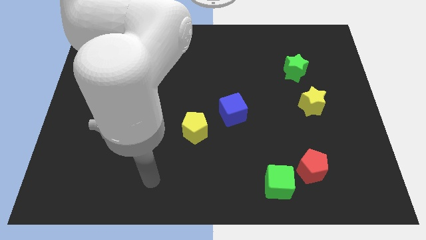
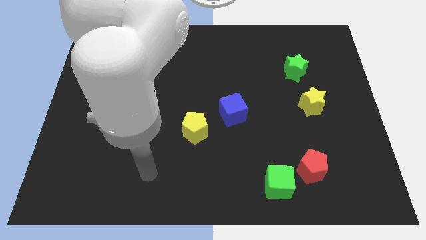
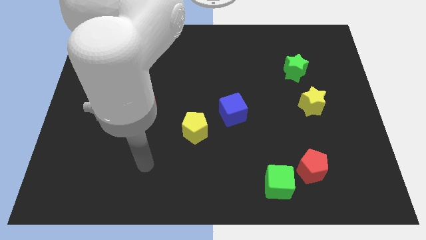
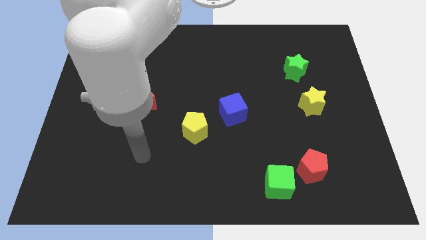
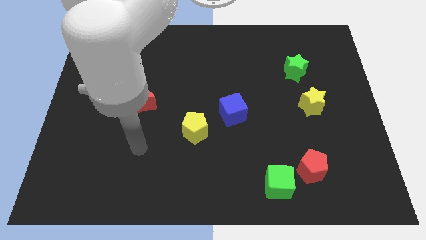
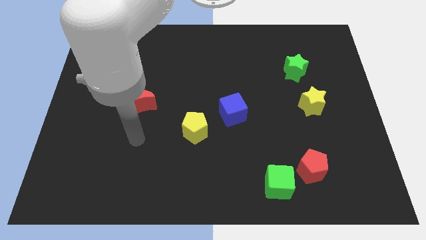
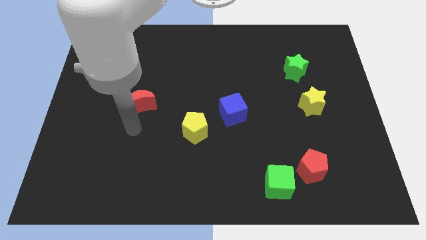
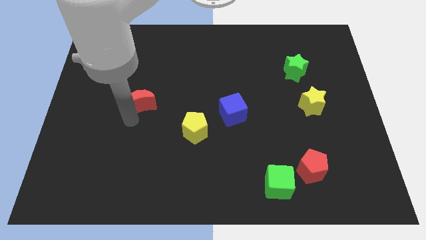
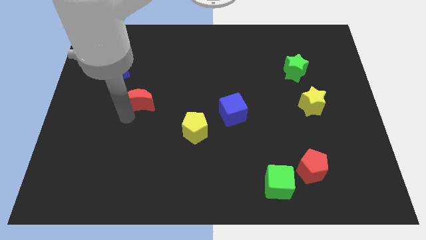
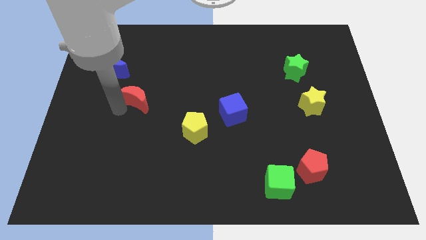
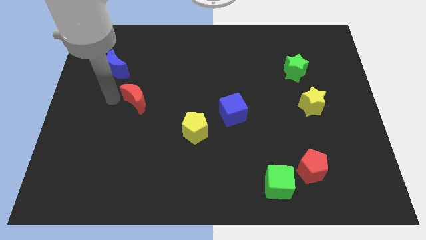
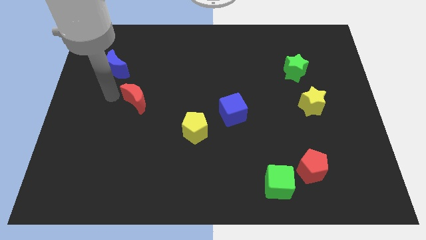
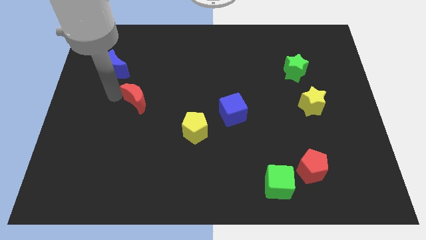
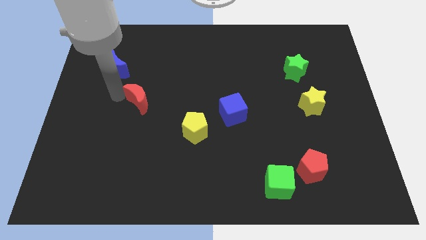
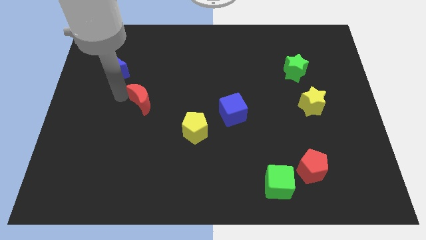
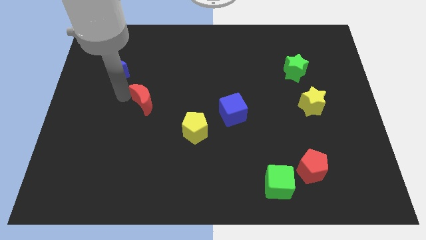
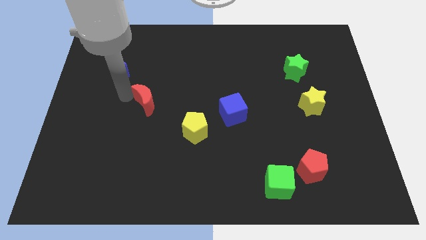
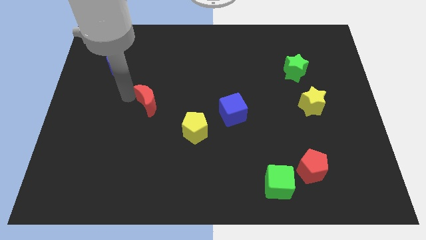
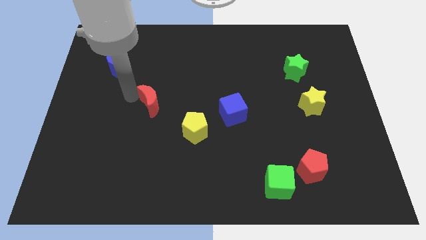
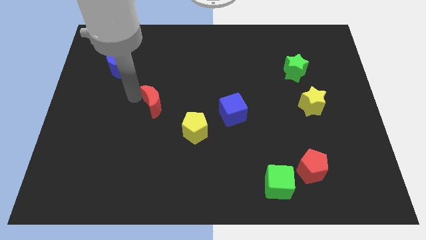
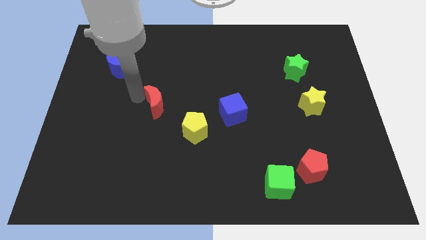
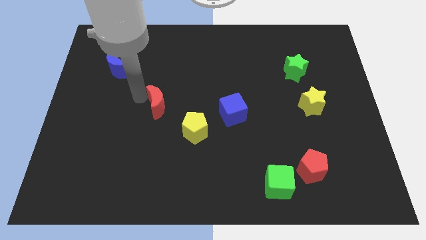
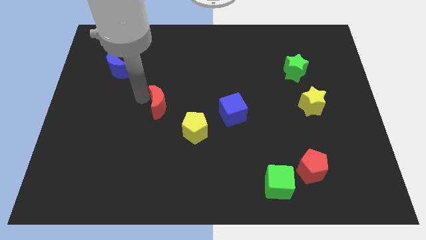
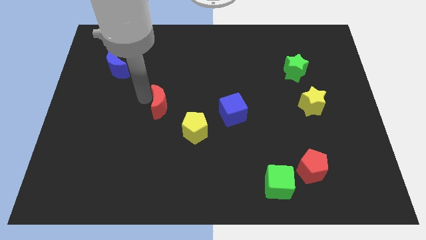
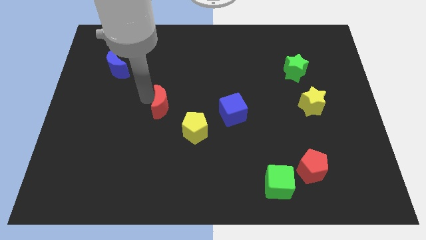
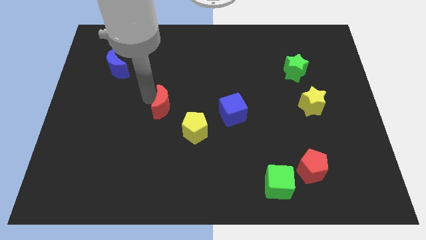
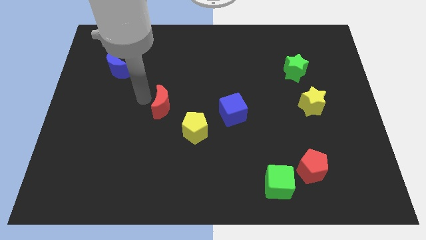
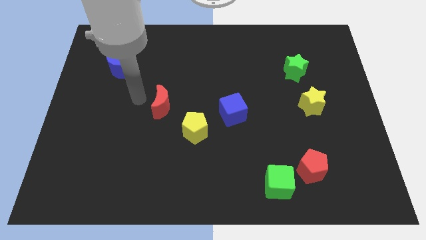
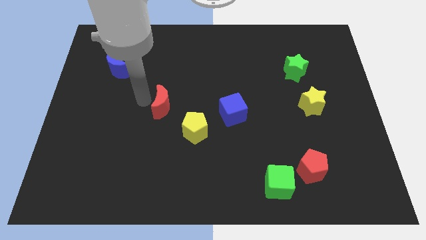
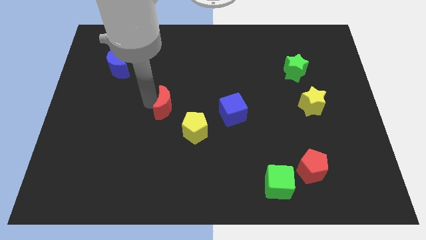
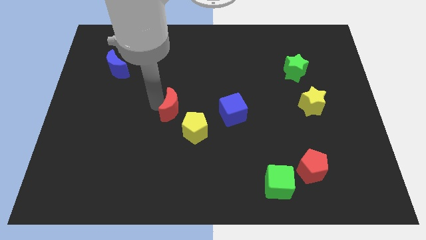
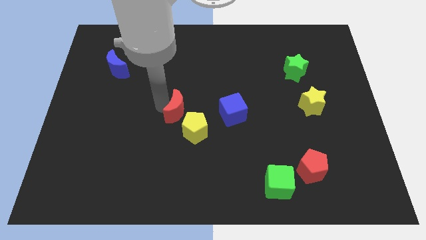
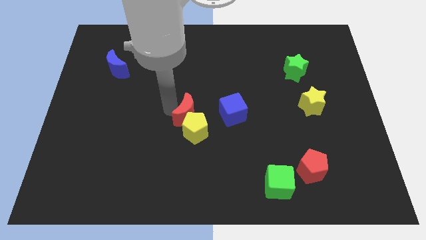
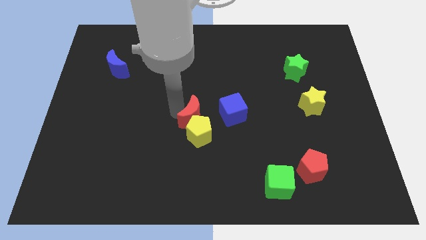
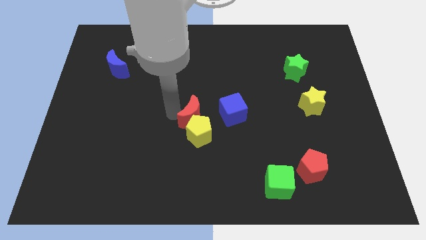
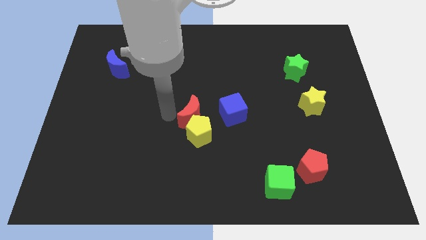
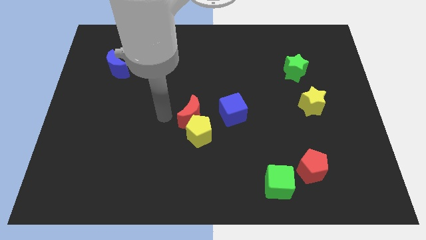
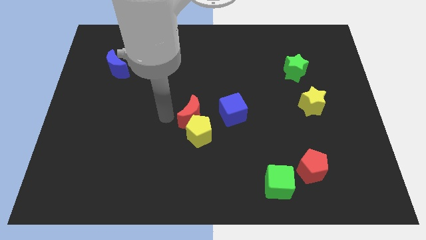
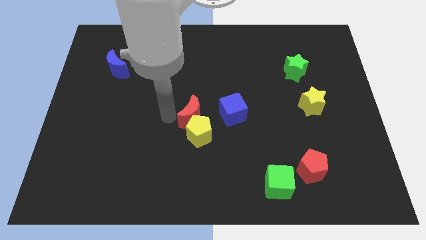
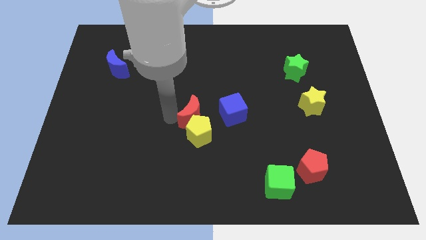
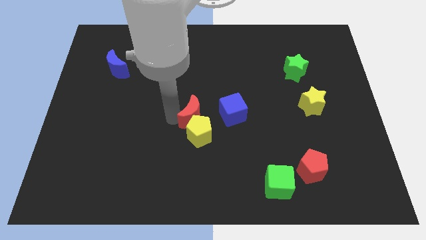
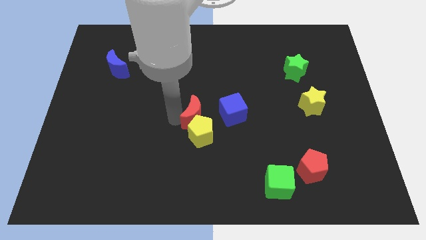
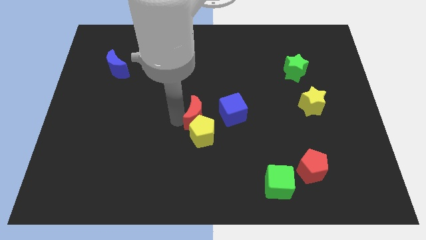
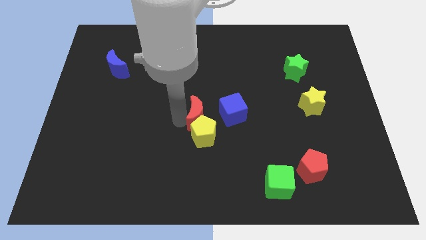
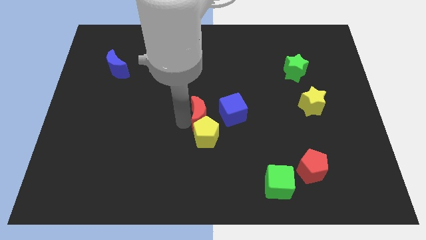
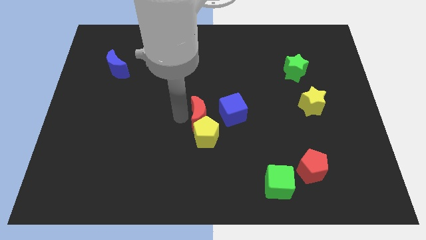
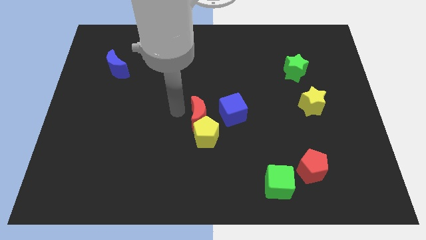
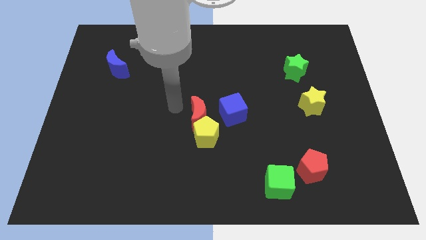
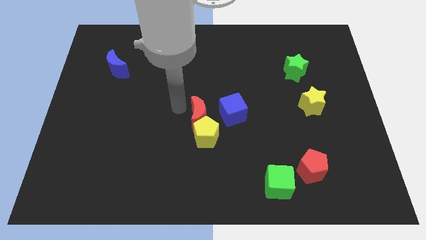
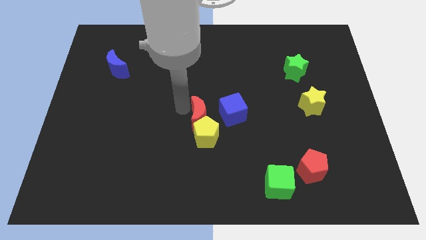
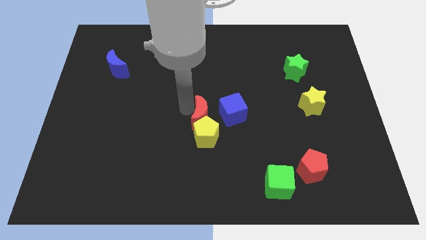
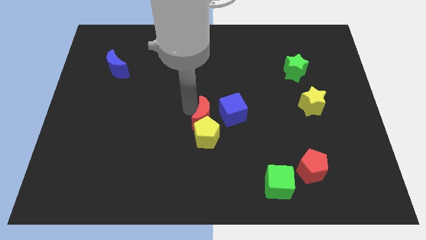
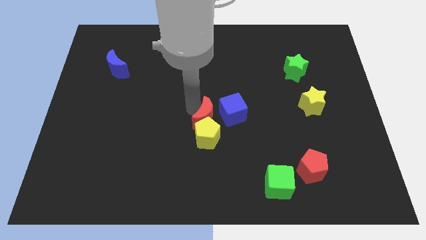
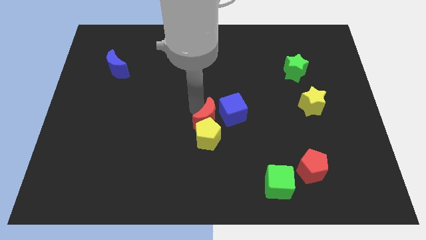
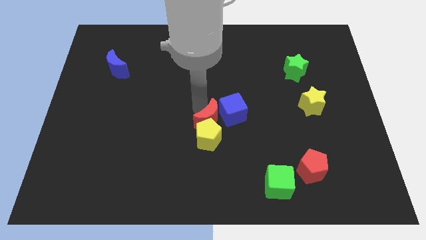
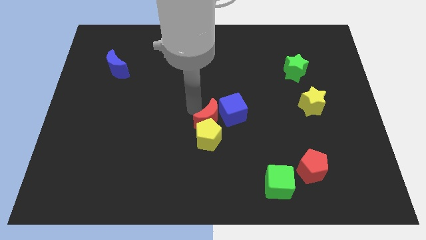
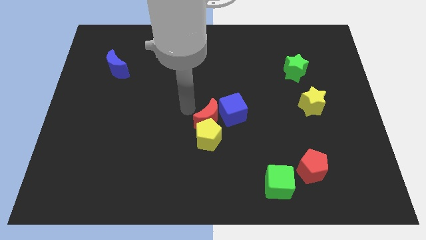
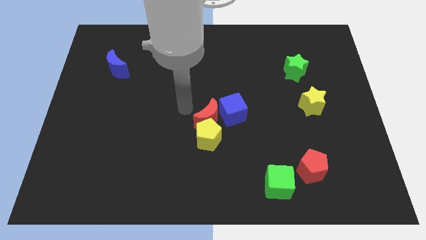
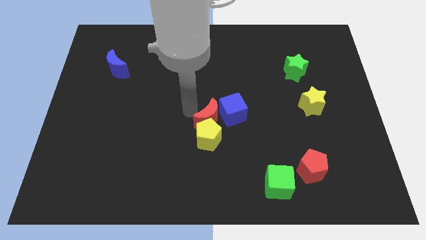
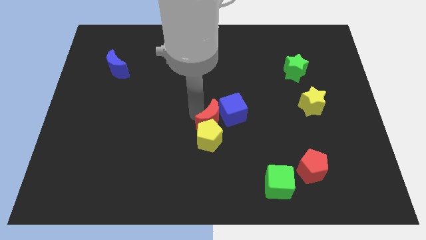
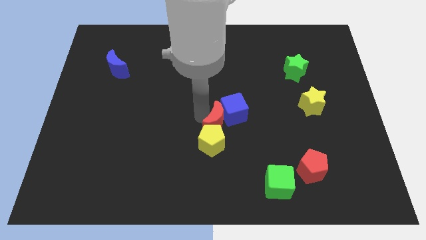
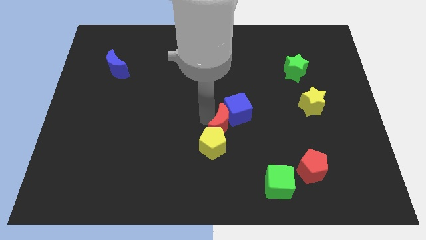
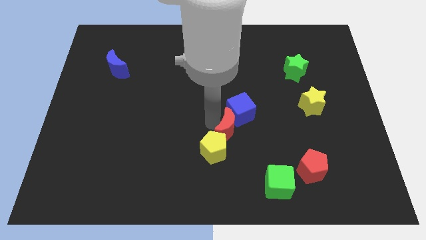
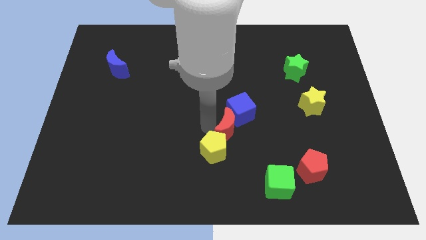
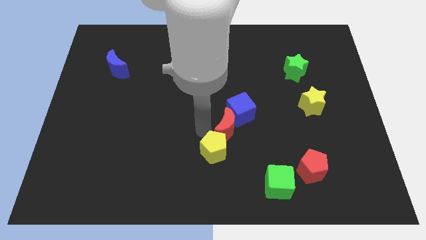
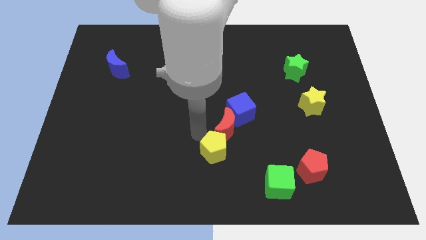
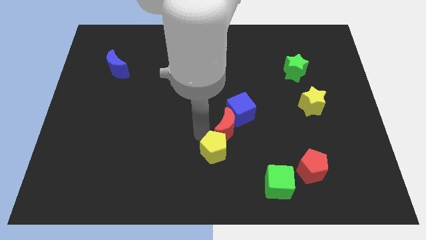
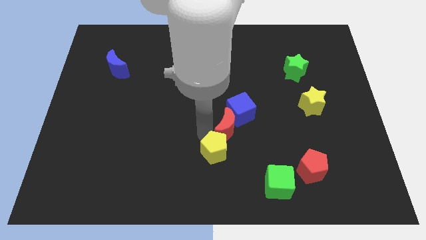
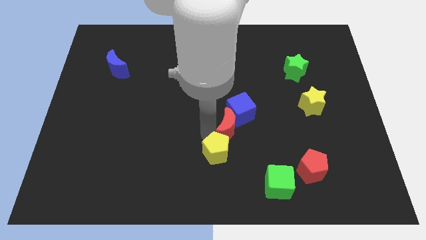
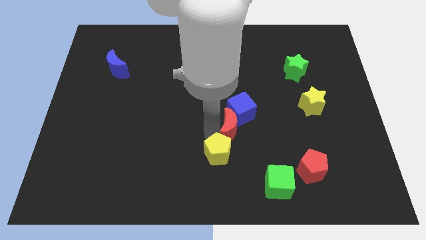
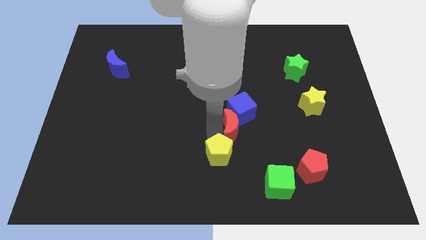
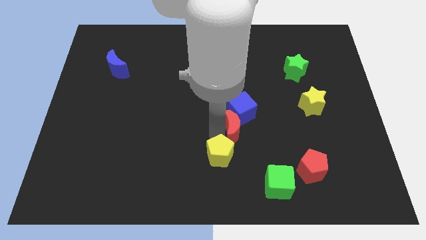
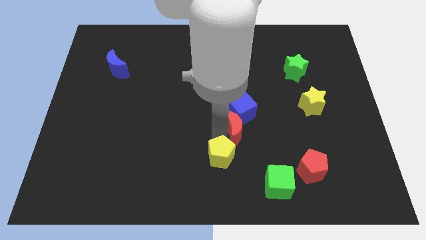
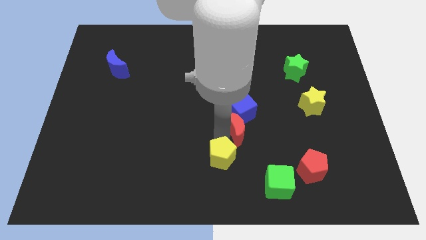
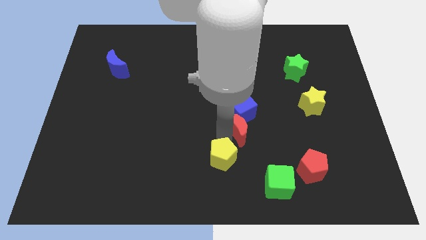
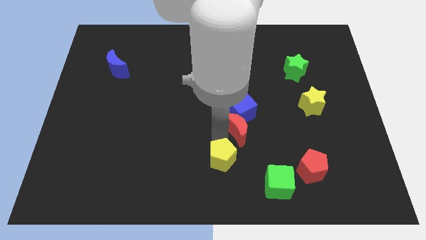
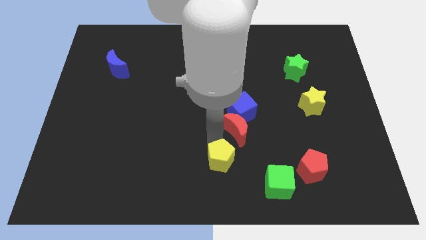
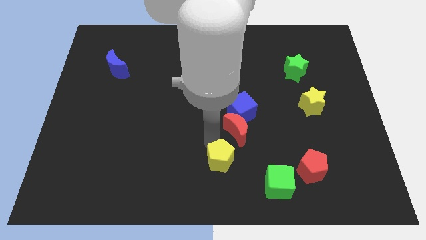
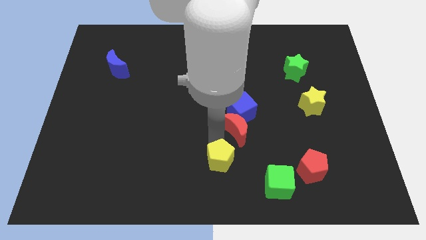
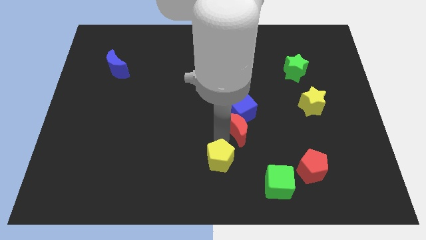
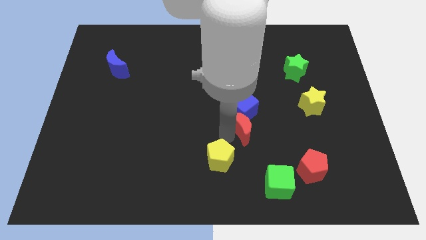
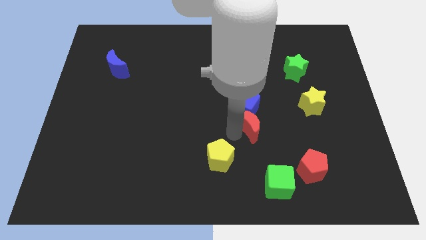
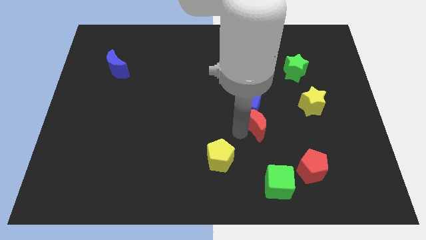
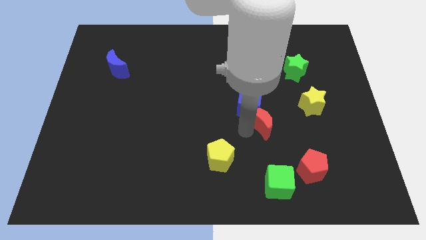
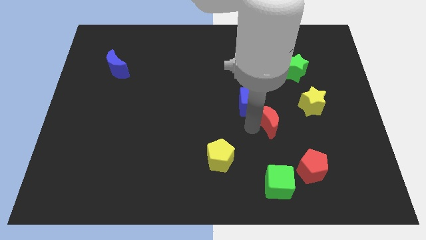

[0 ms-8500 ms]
push the red moon to the bottom left side of the yellow star
